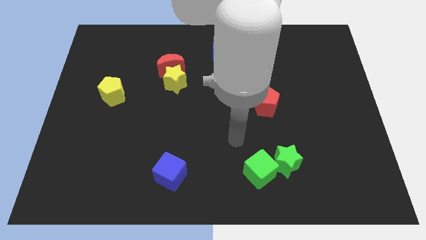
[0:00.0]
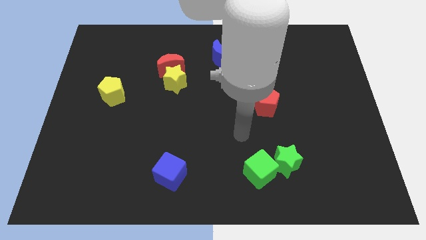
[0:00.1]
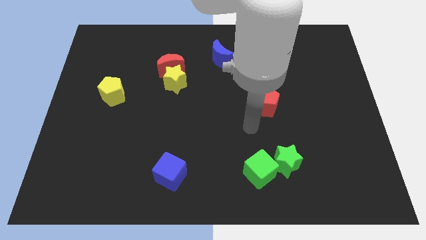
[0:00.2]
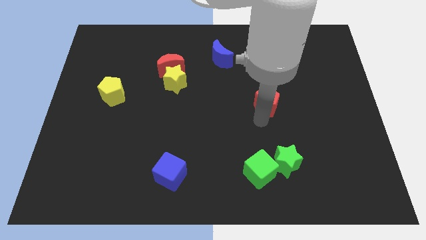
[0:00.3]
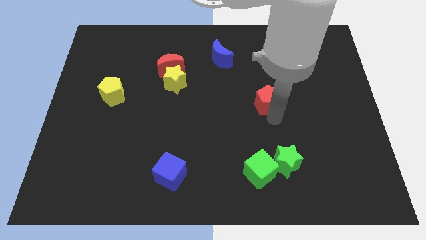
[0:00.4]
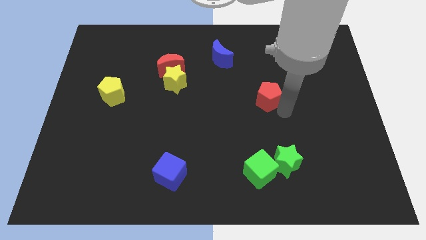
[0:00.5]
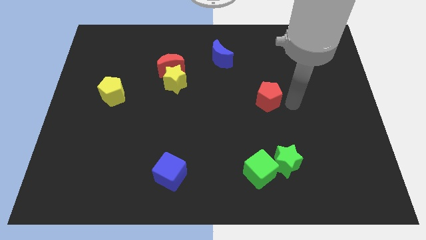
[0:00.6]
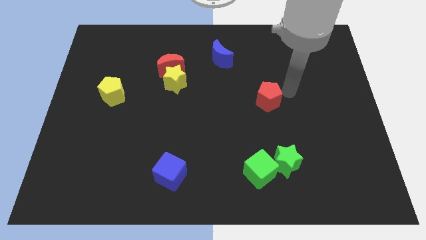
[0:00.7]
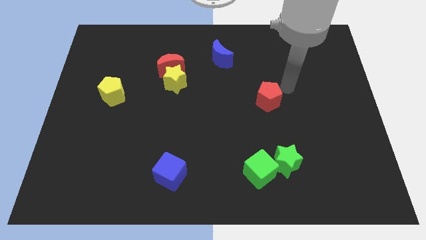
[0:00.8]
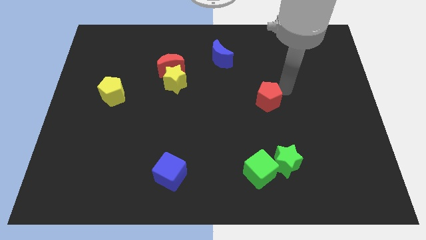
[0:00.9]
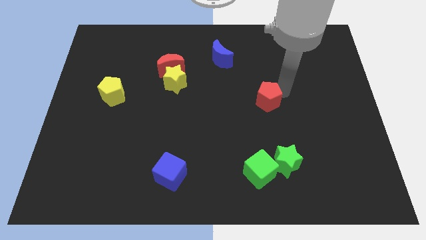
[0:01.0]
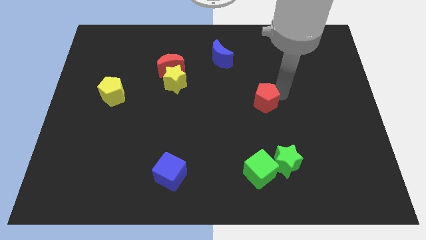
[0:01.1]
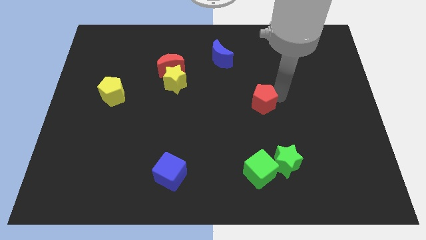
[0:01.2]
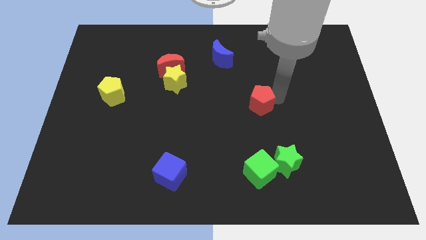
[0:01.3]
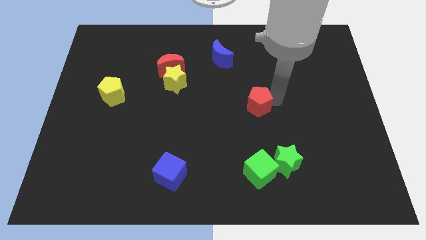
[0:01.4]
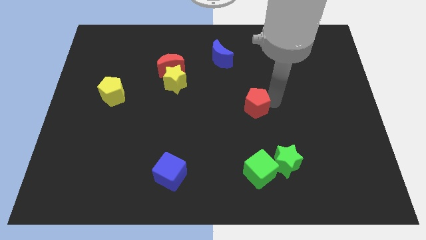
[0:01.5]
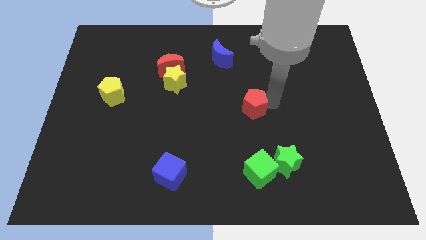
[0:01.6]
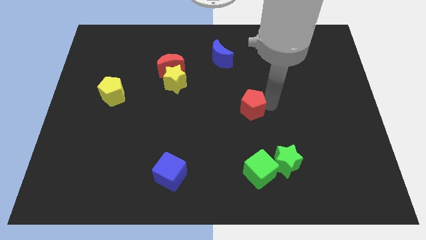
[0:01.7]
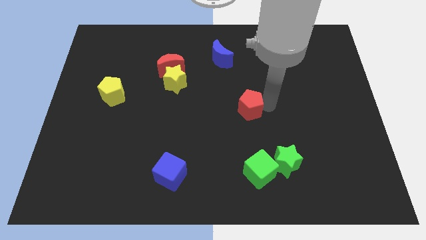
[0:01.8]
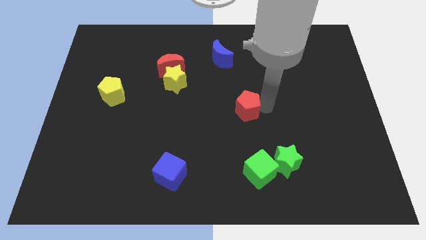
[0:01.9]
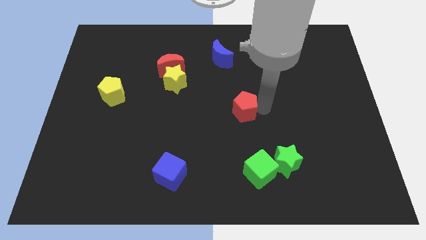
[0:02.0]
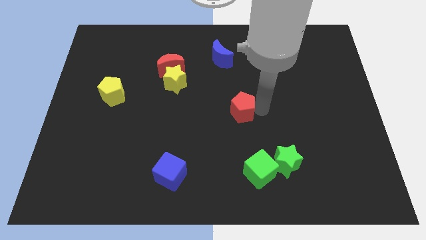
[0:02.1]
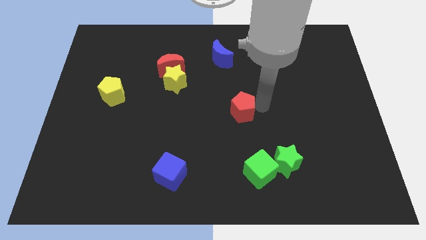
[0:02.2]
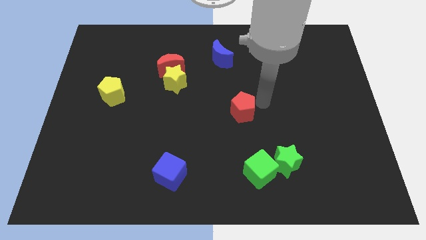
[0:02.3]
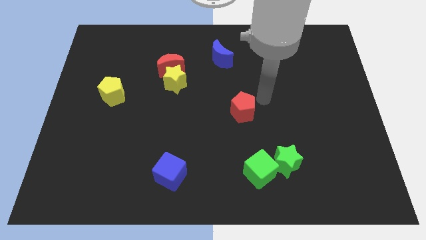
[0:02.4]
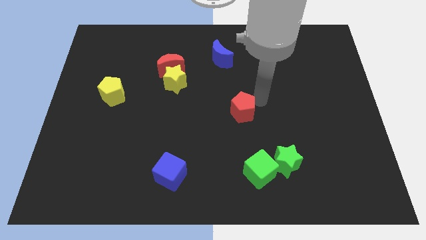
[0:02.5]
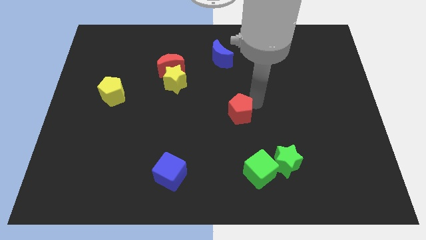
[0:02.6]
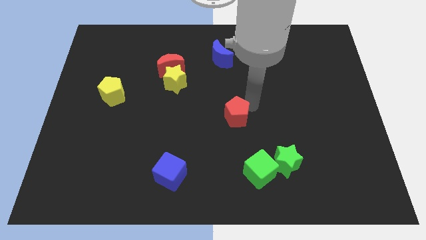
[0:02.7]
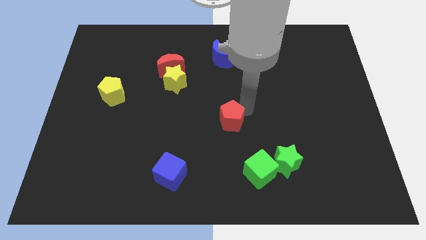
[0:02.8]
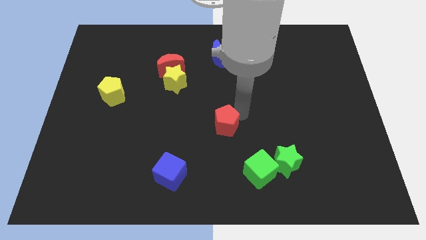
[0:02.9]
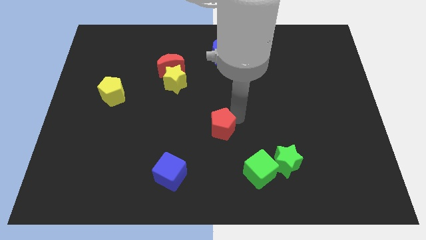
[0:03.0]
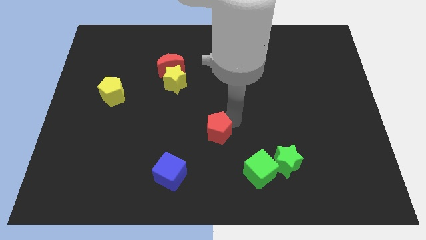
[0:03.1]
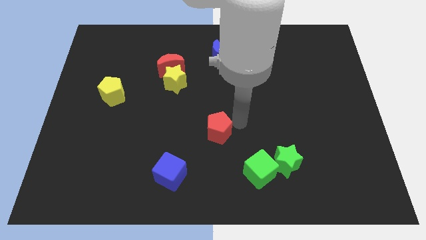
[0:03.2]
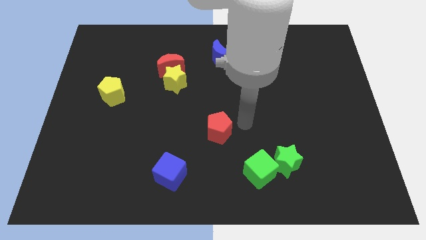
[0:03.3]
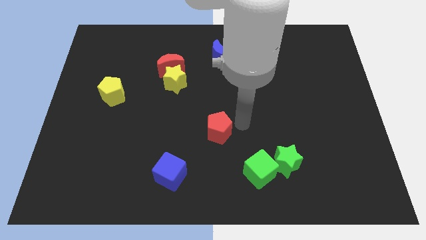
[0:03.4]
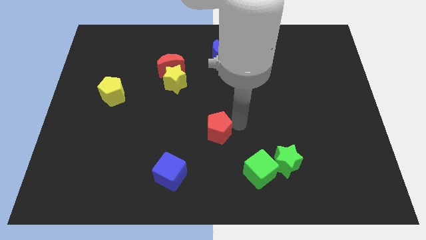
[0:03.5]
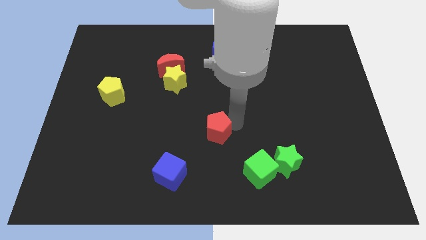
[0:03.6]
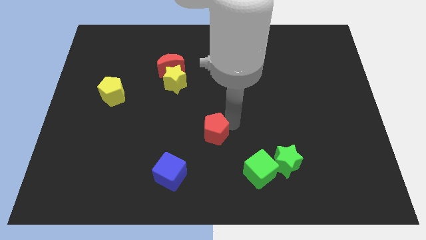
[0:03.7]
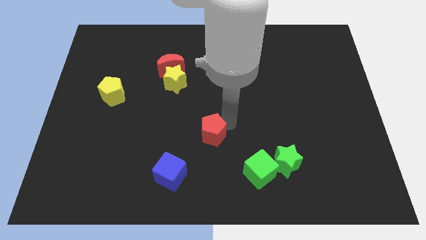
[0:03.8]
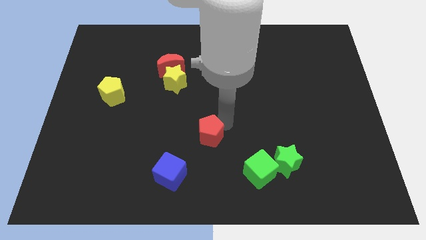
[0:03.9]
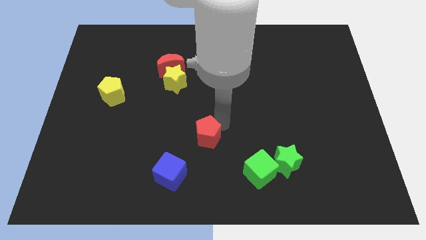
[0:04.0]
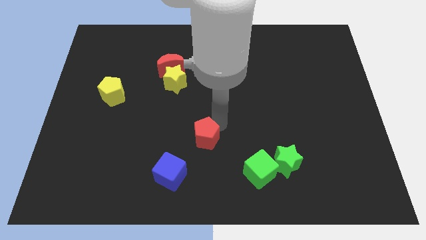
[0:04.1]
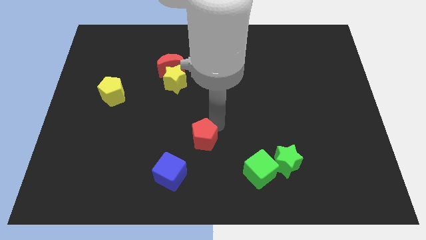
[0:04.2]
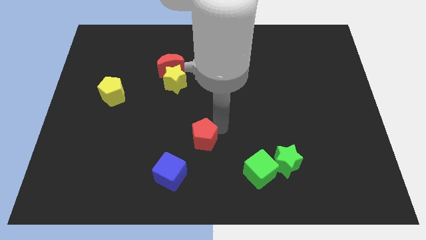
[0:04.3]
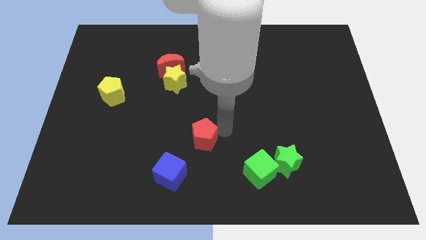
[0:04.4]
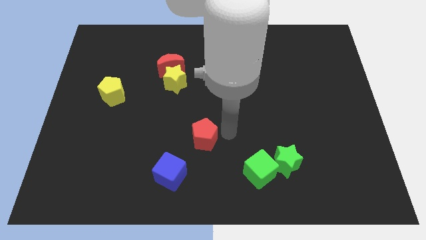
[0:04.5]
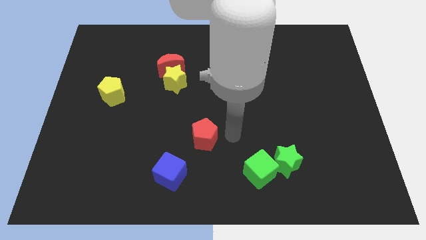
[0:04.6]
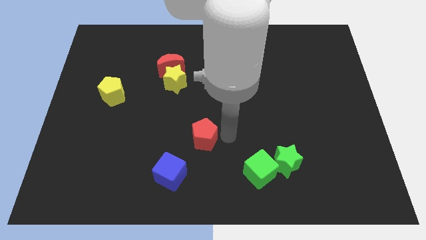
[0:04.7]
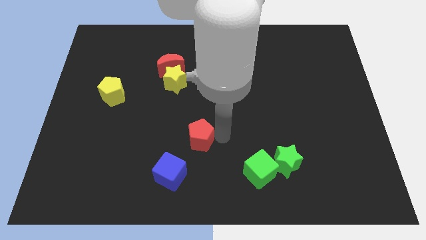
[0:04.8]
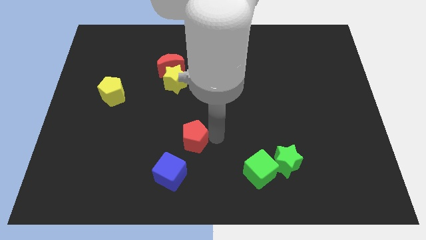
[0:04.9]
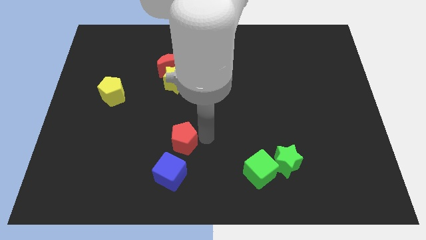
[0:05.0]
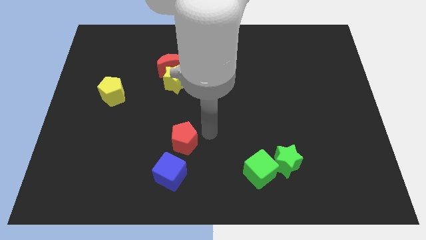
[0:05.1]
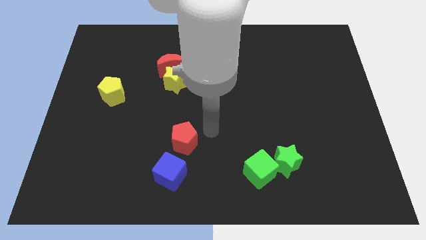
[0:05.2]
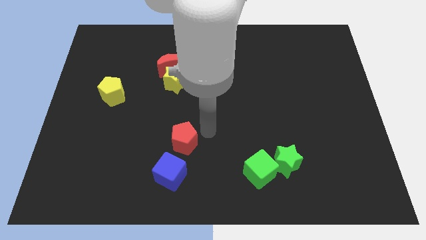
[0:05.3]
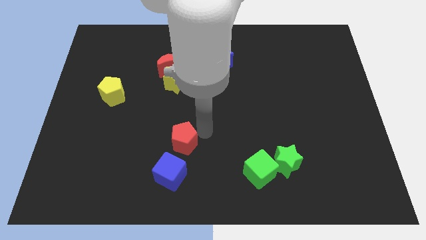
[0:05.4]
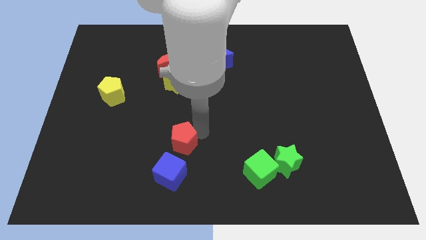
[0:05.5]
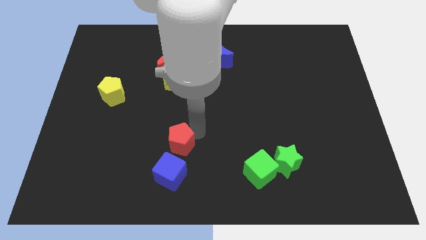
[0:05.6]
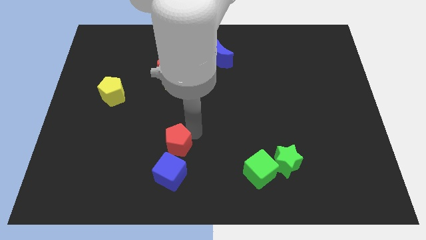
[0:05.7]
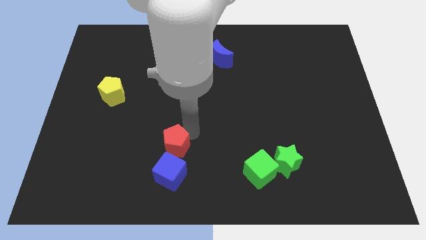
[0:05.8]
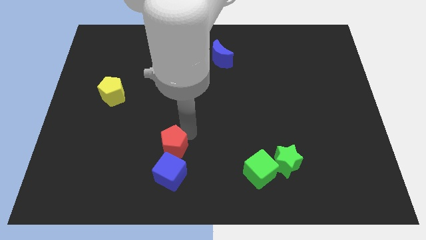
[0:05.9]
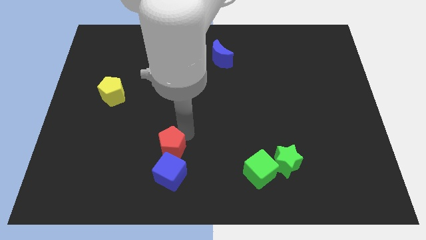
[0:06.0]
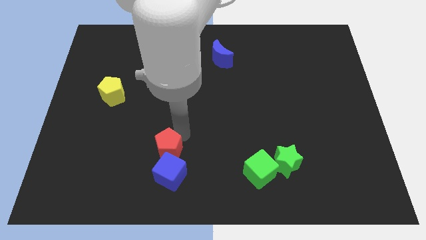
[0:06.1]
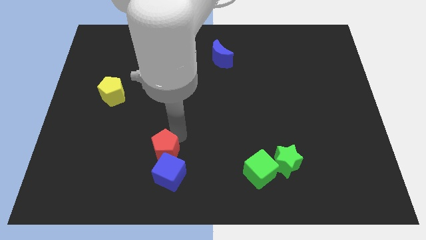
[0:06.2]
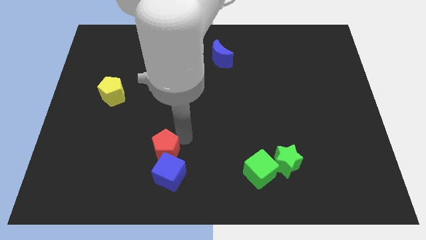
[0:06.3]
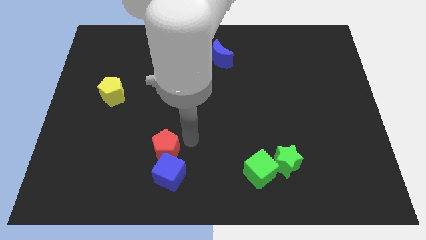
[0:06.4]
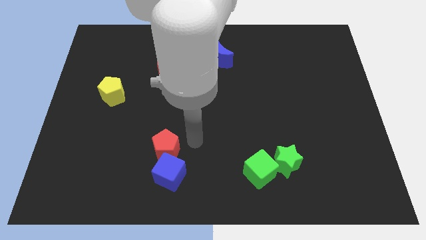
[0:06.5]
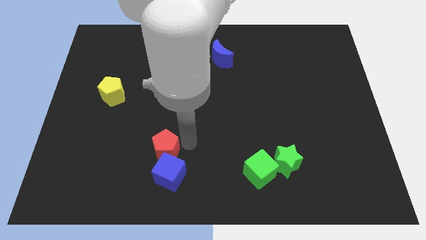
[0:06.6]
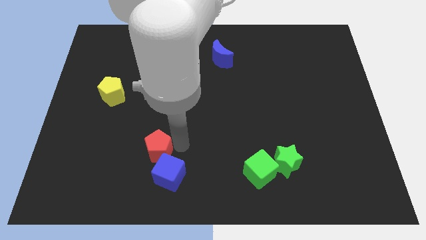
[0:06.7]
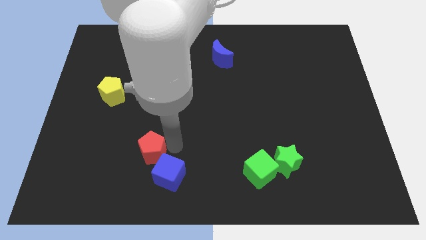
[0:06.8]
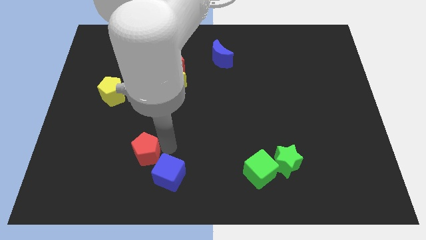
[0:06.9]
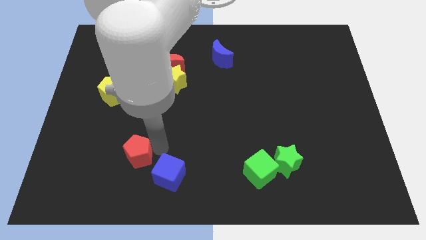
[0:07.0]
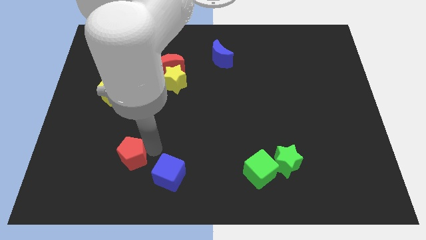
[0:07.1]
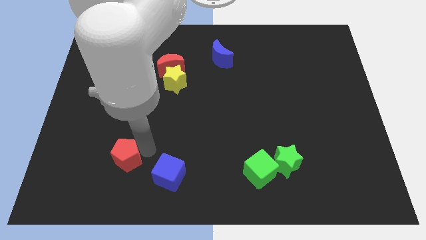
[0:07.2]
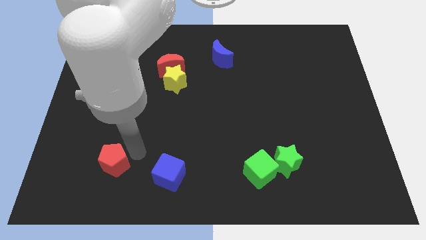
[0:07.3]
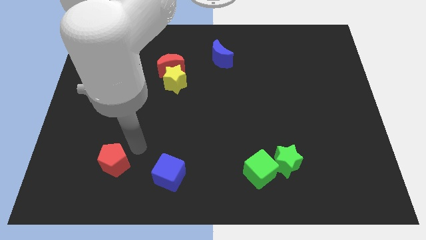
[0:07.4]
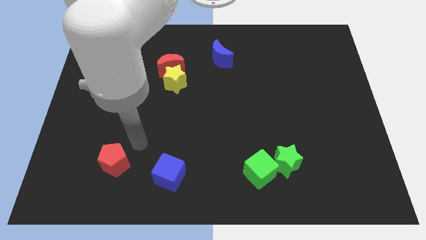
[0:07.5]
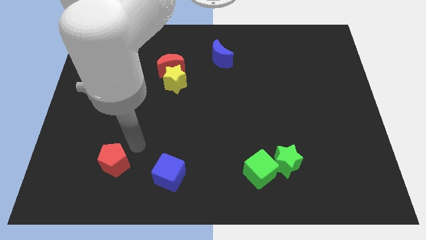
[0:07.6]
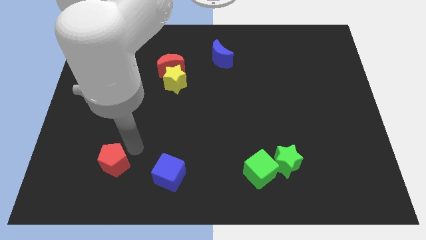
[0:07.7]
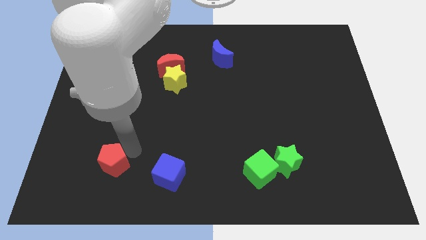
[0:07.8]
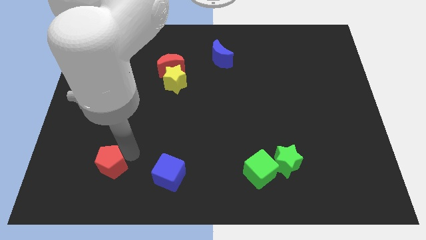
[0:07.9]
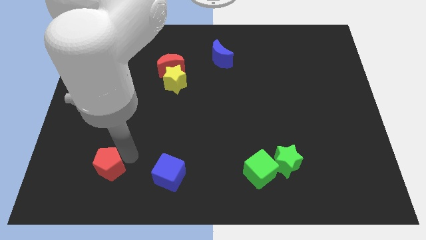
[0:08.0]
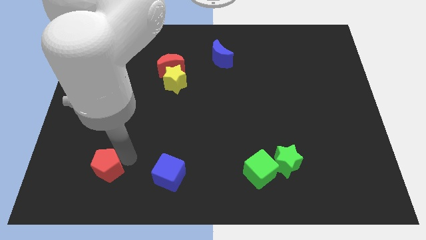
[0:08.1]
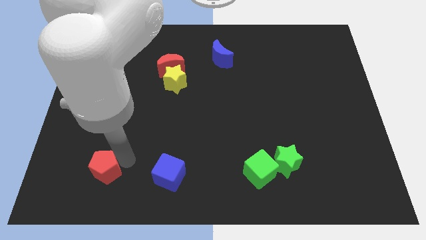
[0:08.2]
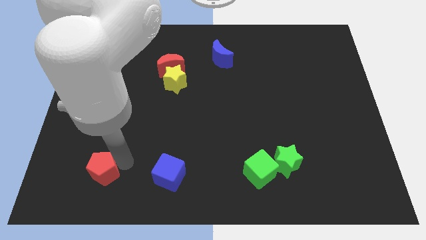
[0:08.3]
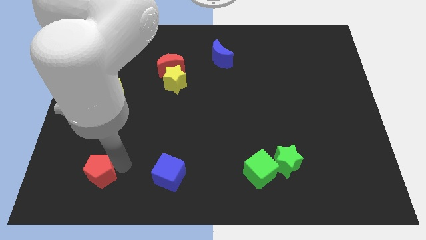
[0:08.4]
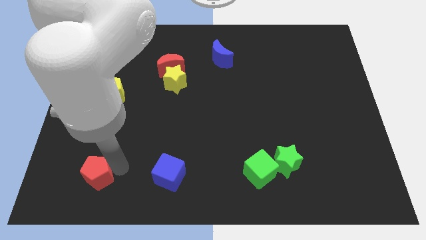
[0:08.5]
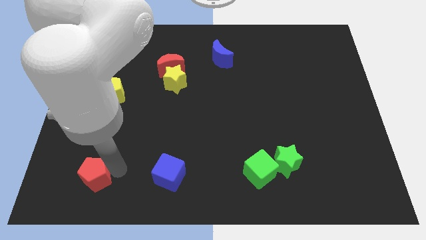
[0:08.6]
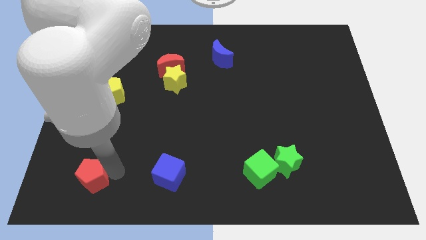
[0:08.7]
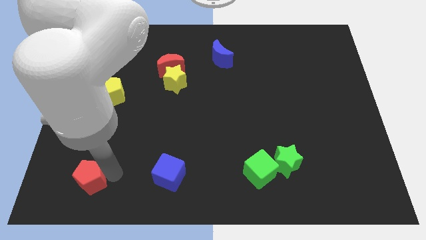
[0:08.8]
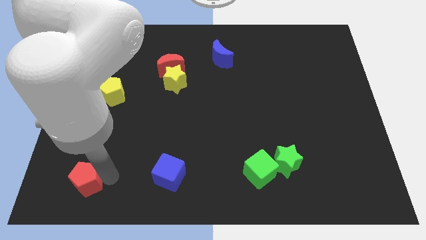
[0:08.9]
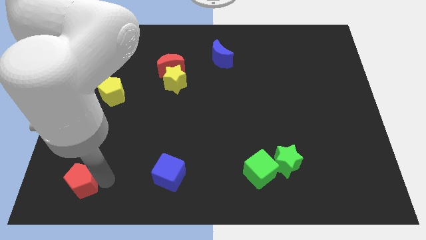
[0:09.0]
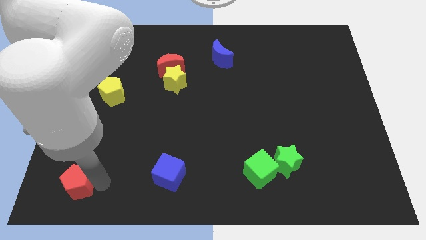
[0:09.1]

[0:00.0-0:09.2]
push the red pentagon to the bottom left
